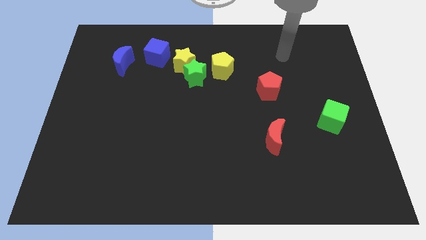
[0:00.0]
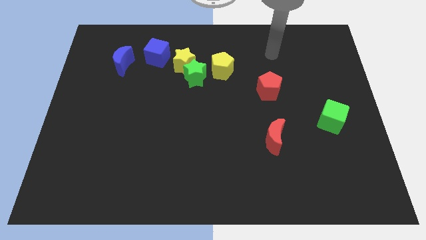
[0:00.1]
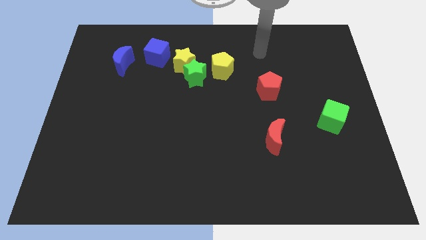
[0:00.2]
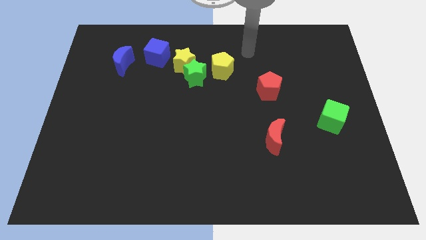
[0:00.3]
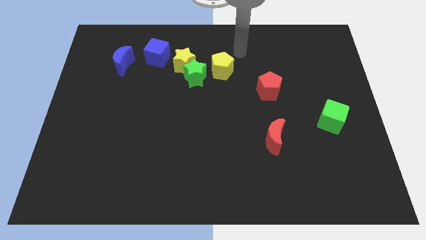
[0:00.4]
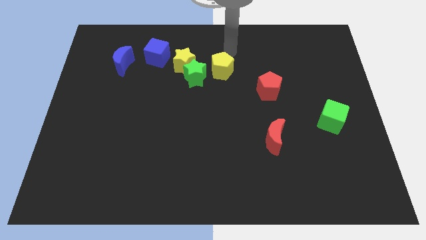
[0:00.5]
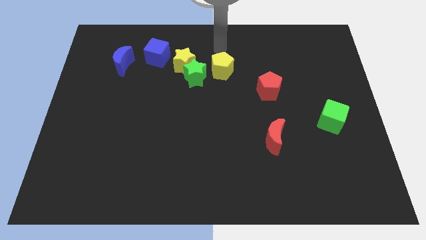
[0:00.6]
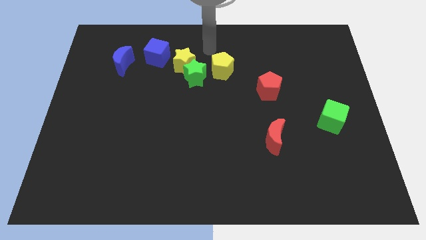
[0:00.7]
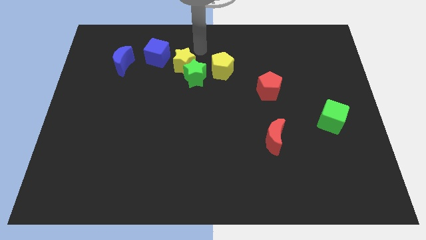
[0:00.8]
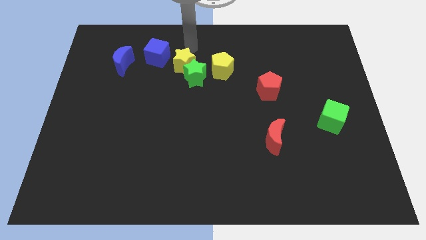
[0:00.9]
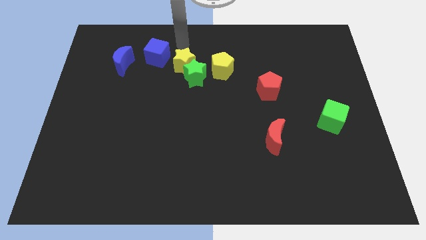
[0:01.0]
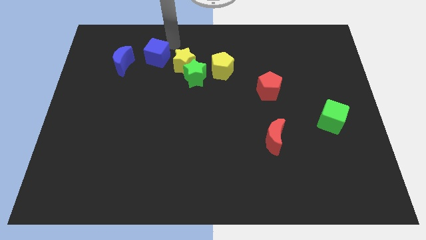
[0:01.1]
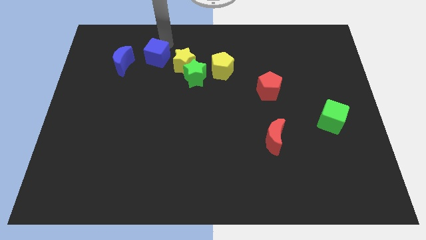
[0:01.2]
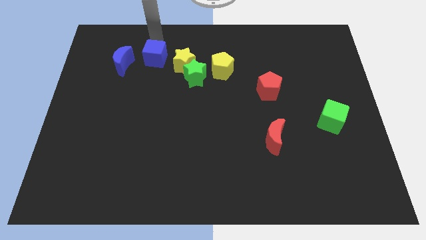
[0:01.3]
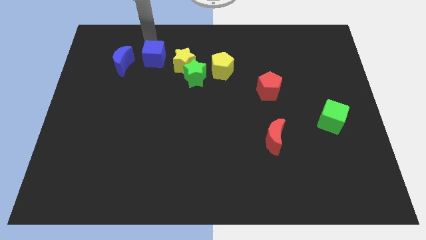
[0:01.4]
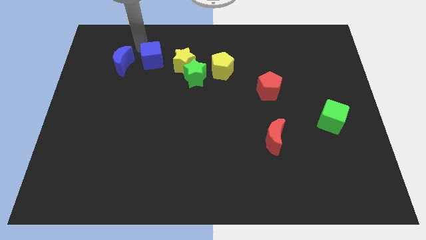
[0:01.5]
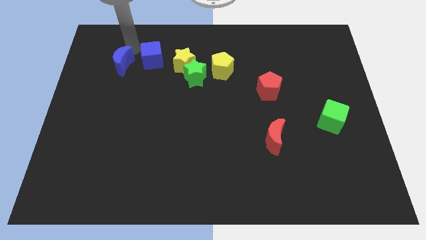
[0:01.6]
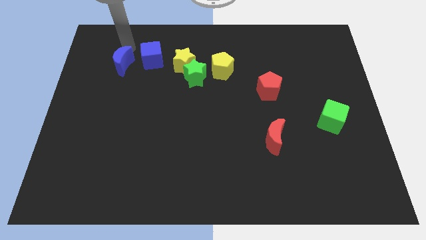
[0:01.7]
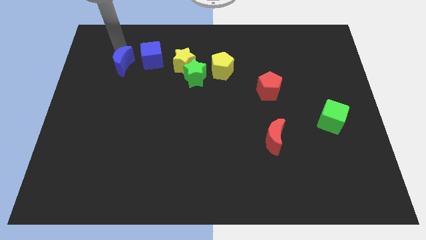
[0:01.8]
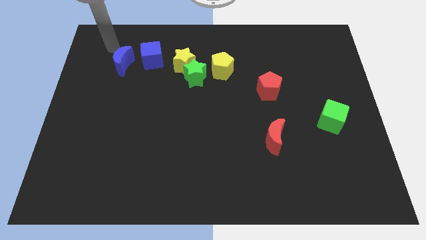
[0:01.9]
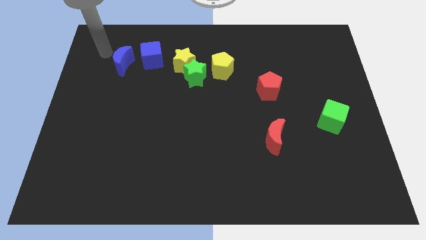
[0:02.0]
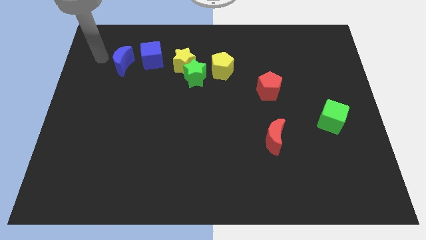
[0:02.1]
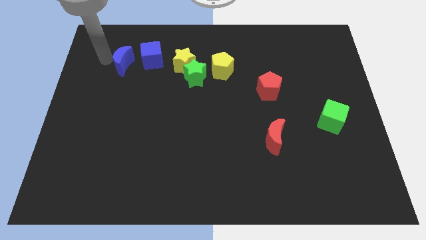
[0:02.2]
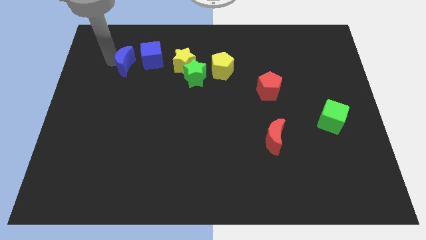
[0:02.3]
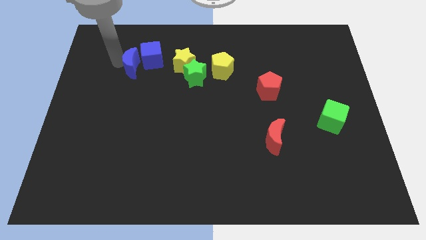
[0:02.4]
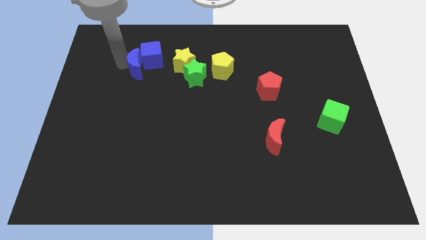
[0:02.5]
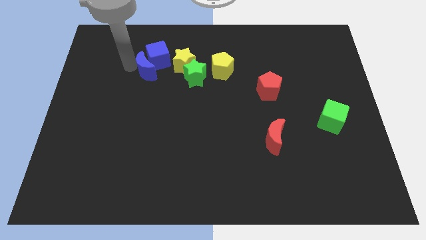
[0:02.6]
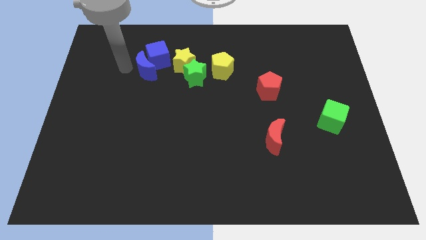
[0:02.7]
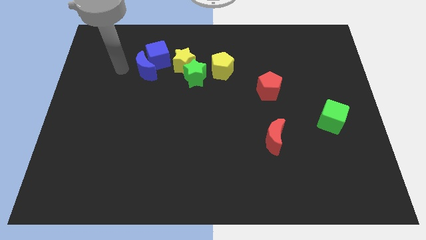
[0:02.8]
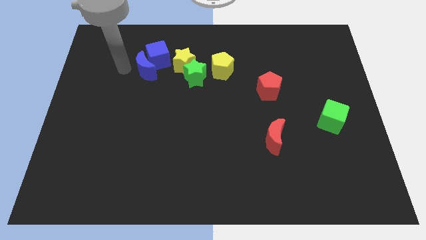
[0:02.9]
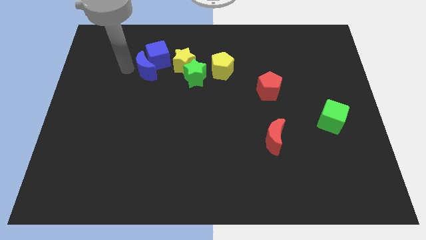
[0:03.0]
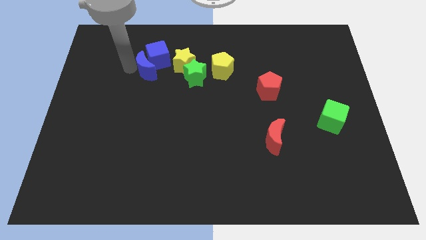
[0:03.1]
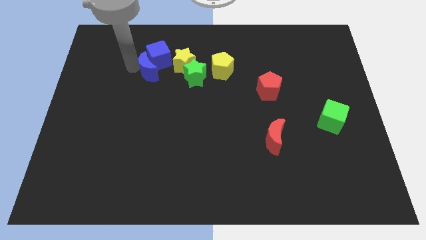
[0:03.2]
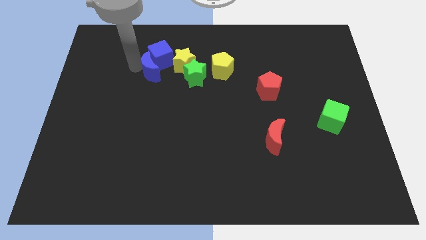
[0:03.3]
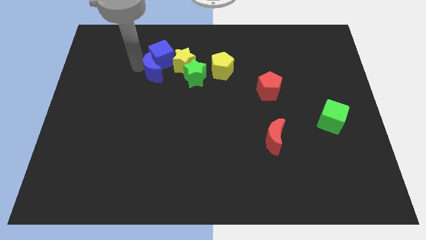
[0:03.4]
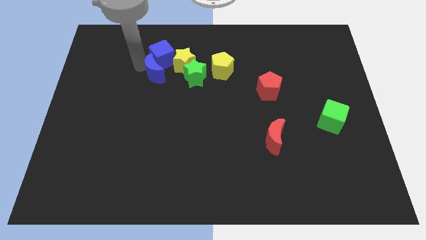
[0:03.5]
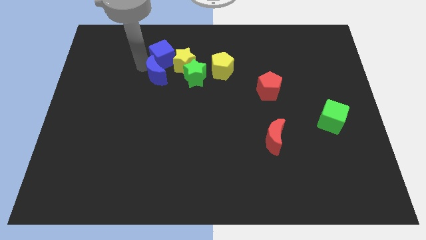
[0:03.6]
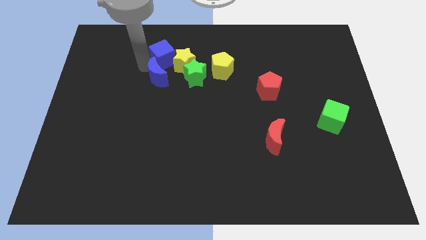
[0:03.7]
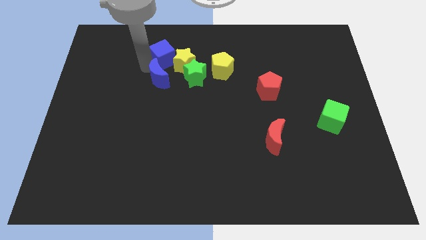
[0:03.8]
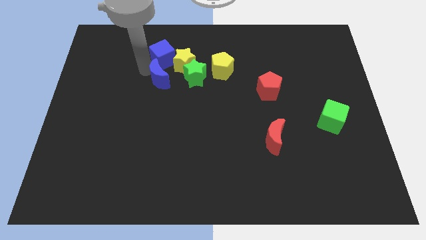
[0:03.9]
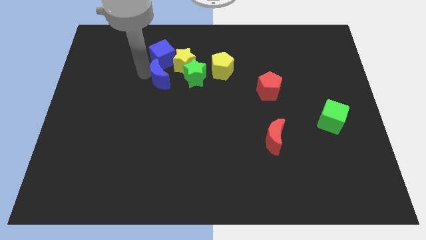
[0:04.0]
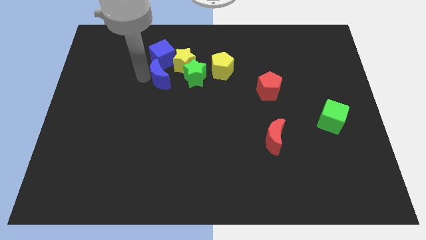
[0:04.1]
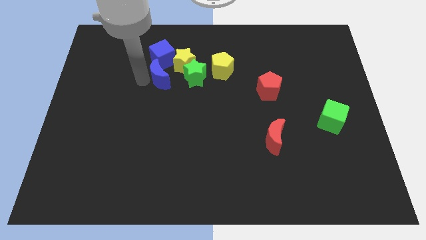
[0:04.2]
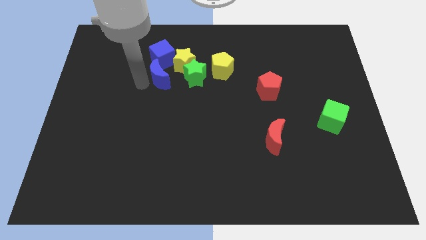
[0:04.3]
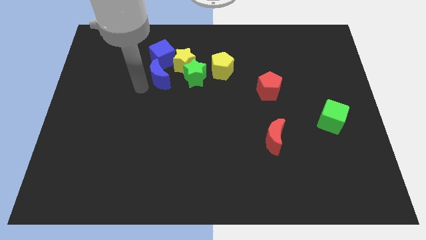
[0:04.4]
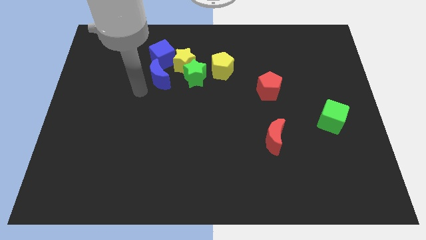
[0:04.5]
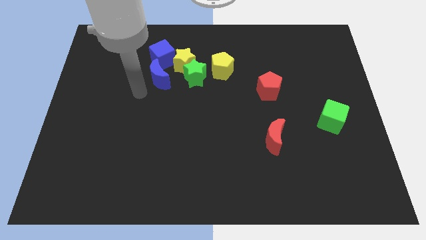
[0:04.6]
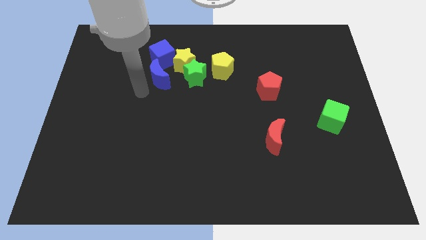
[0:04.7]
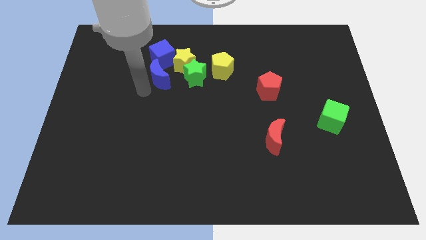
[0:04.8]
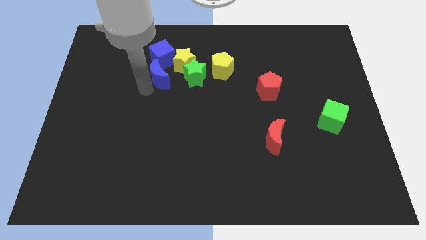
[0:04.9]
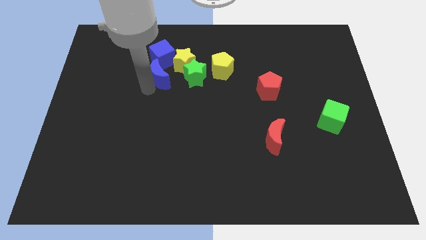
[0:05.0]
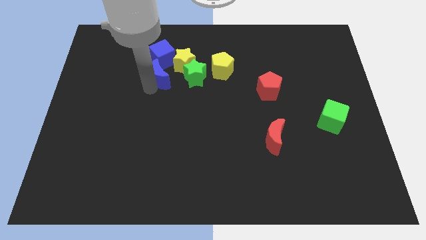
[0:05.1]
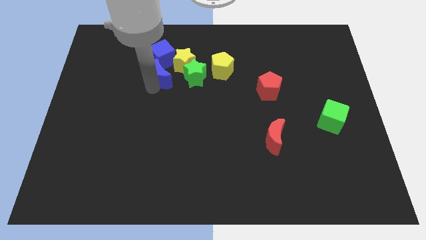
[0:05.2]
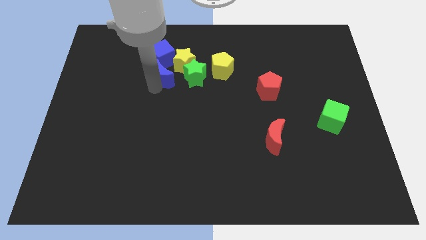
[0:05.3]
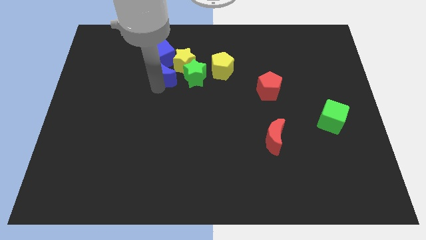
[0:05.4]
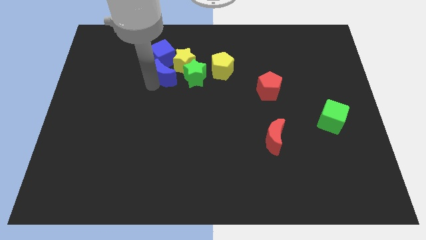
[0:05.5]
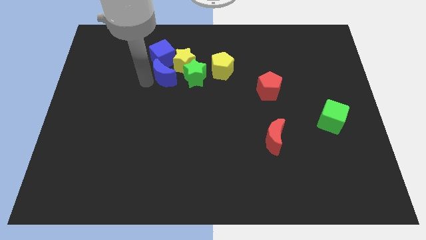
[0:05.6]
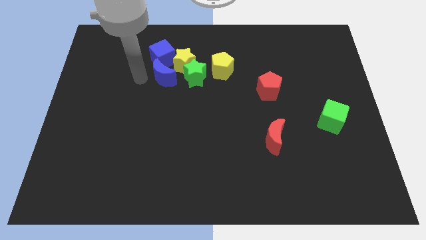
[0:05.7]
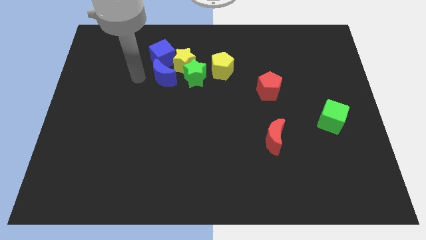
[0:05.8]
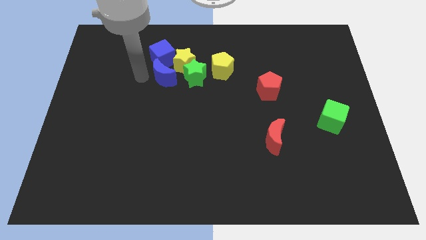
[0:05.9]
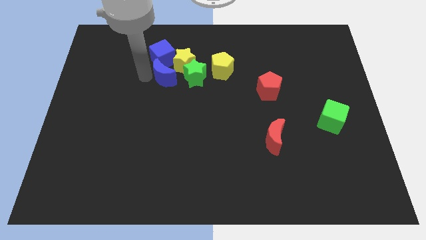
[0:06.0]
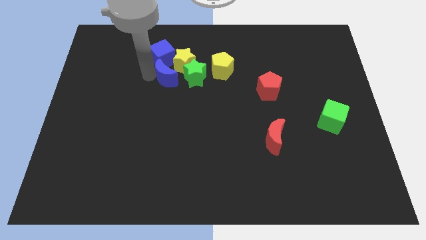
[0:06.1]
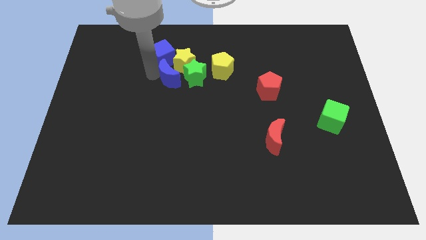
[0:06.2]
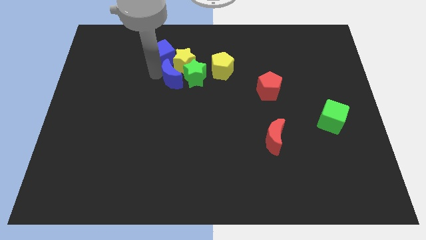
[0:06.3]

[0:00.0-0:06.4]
move the blue moon close to the green star

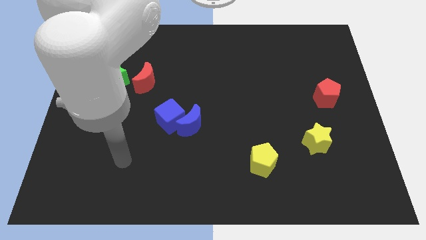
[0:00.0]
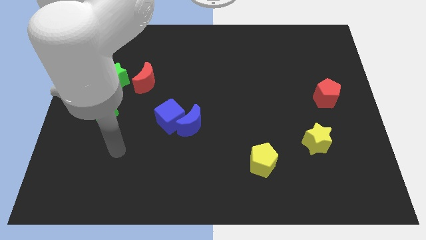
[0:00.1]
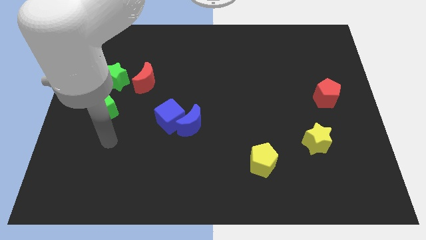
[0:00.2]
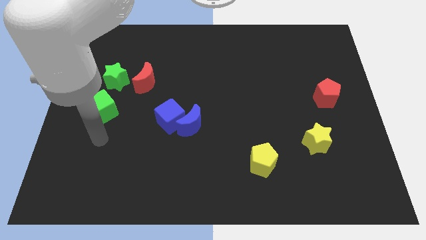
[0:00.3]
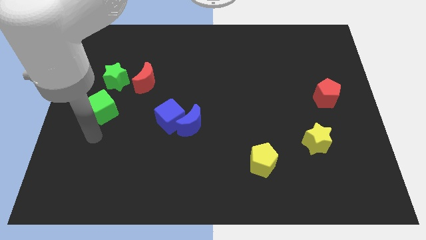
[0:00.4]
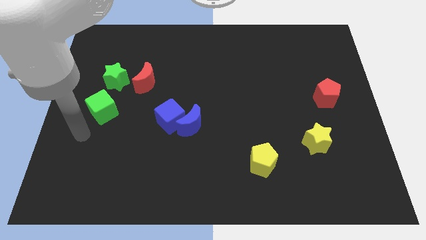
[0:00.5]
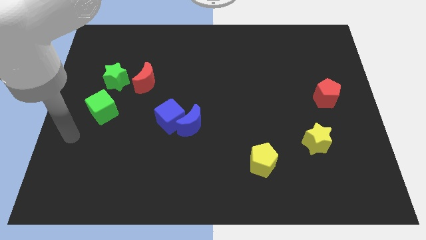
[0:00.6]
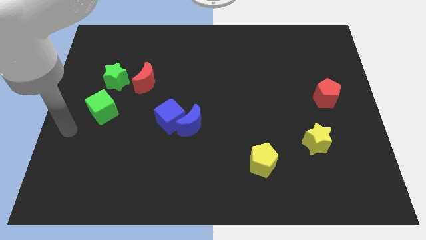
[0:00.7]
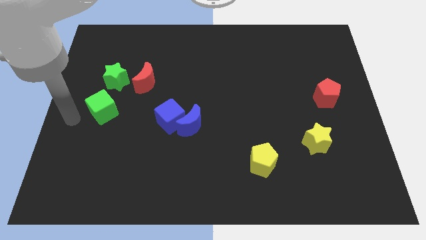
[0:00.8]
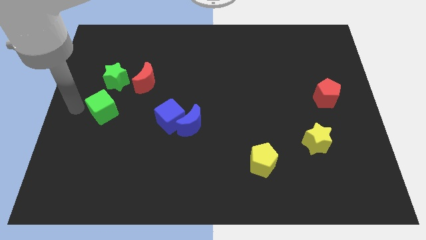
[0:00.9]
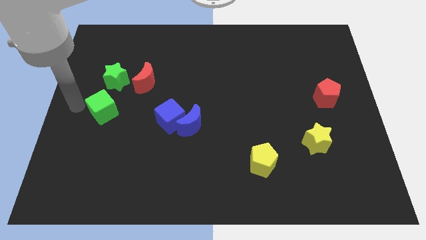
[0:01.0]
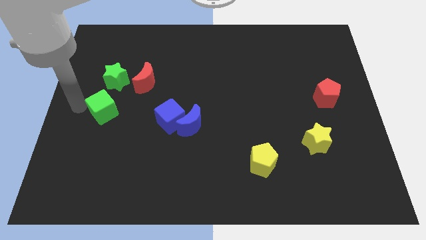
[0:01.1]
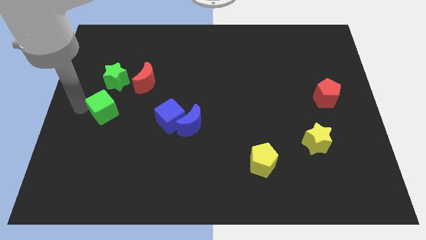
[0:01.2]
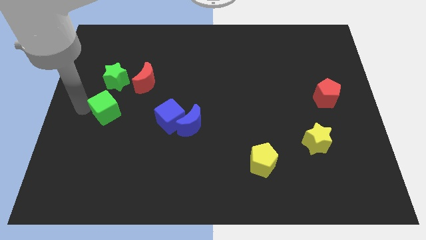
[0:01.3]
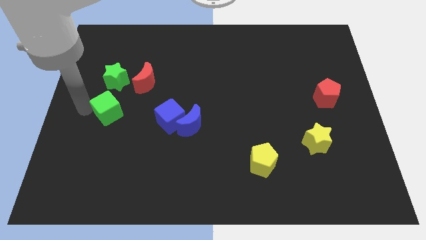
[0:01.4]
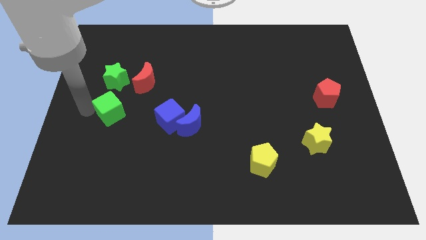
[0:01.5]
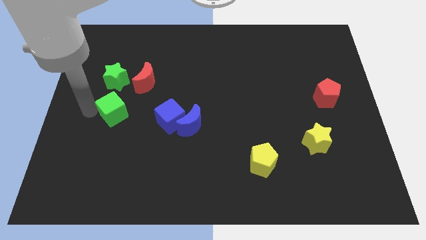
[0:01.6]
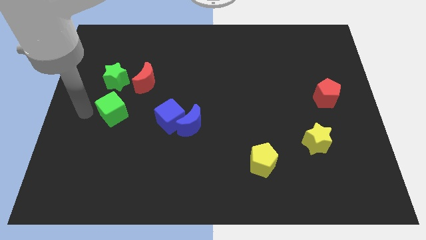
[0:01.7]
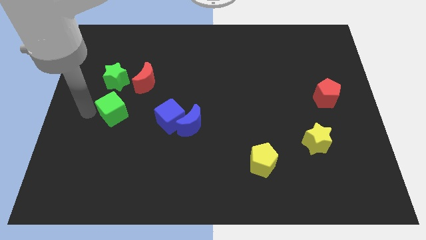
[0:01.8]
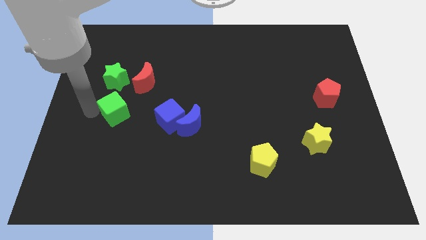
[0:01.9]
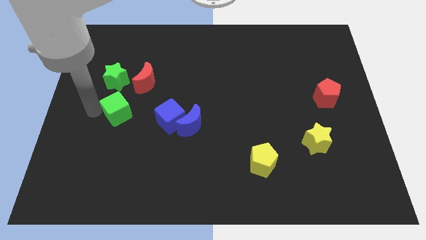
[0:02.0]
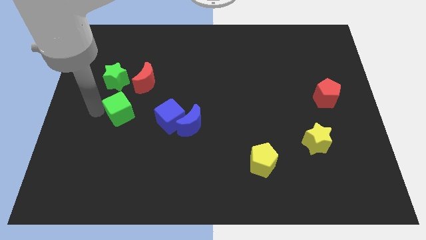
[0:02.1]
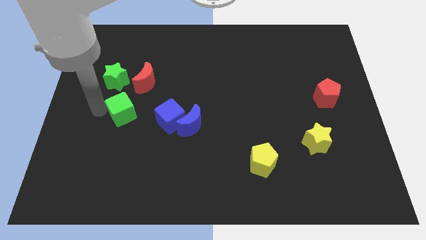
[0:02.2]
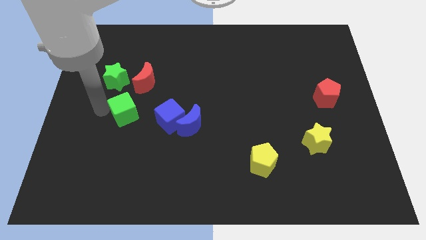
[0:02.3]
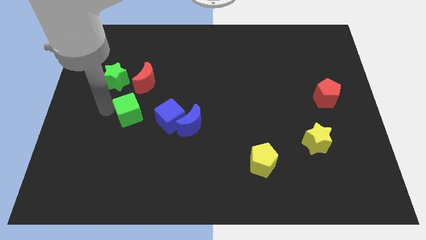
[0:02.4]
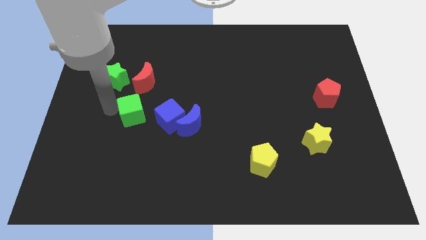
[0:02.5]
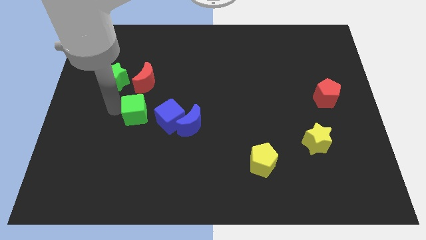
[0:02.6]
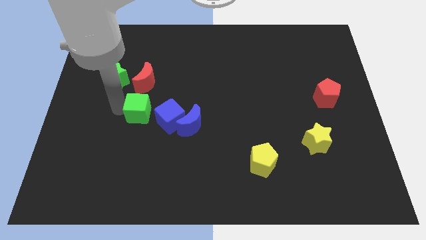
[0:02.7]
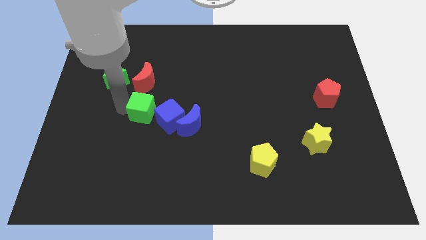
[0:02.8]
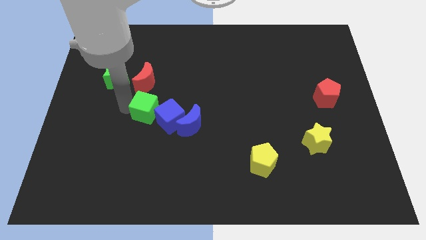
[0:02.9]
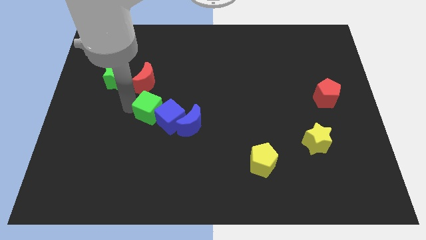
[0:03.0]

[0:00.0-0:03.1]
move the green cube close to the blue cube
